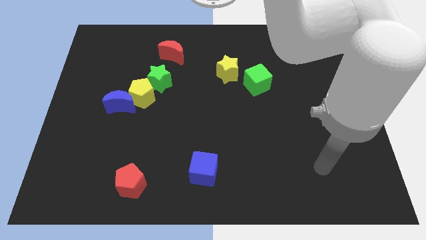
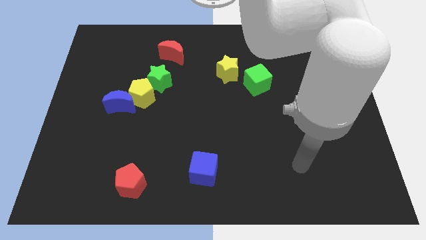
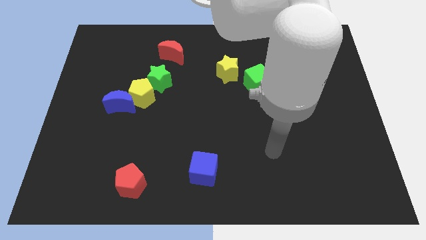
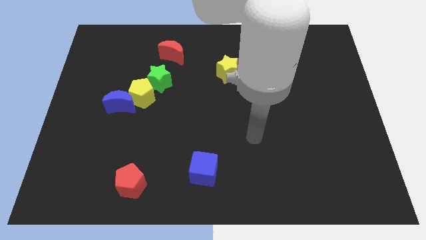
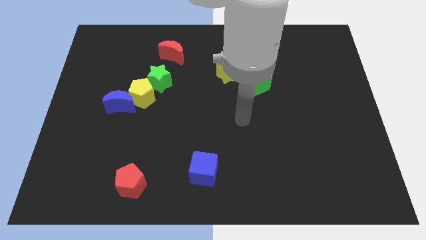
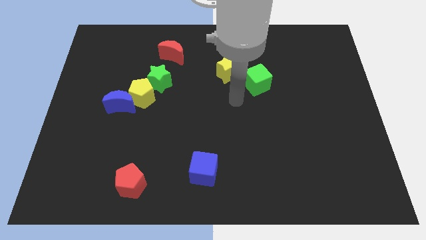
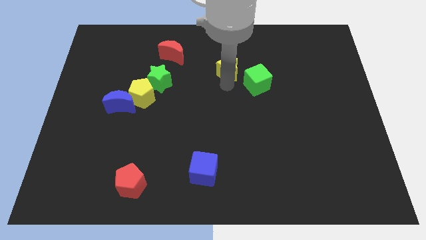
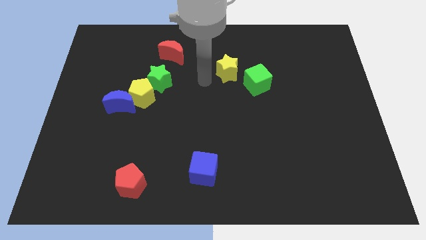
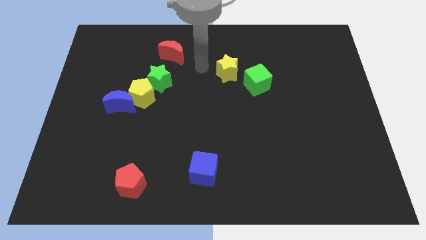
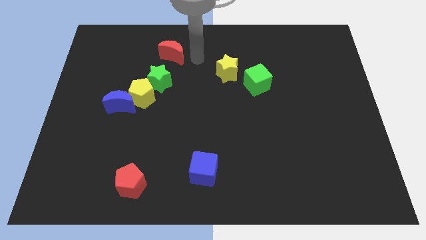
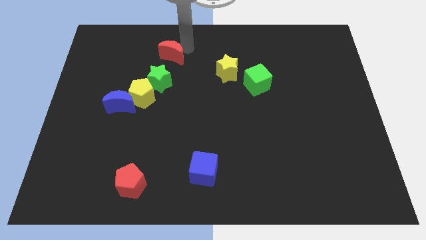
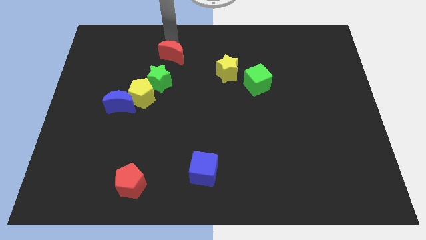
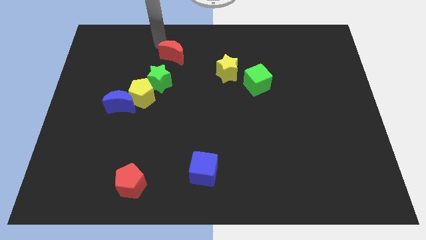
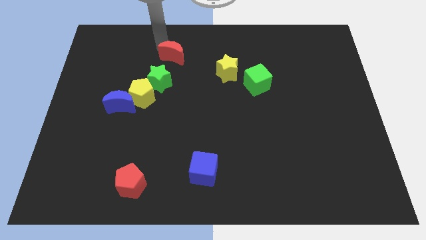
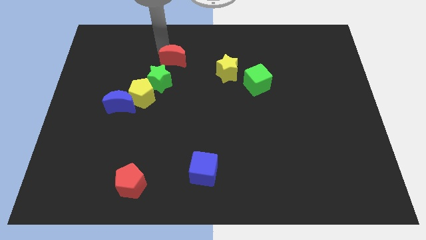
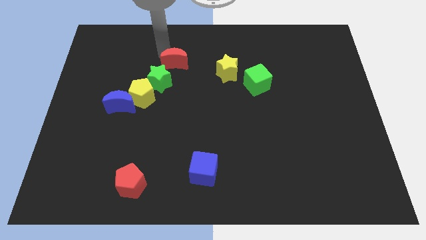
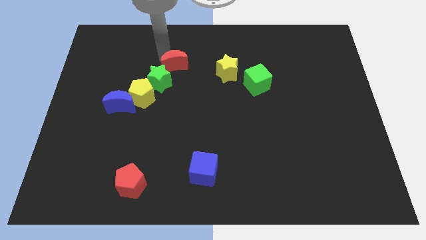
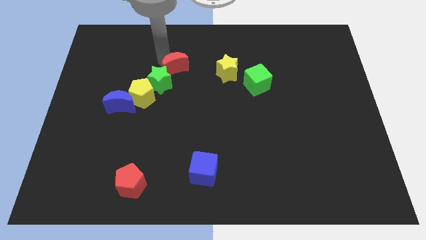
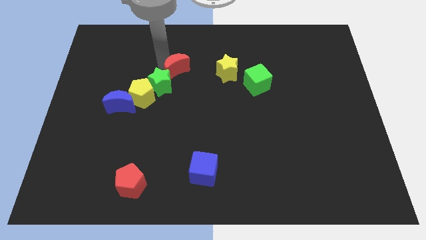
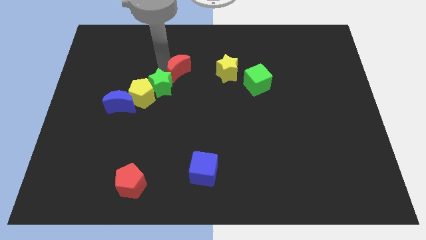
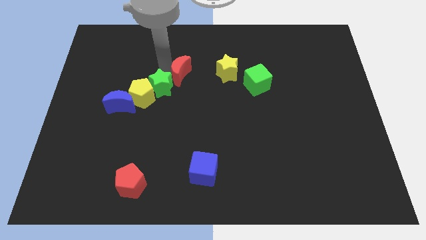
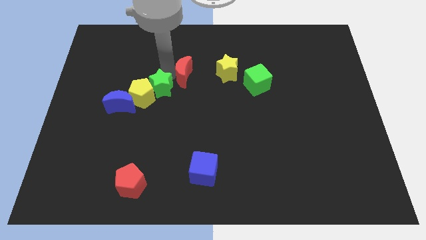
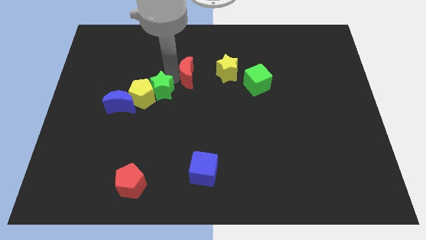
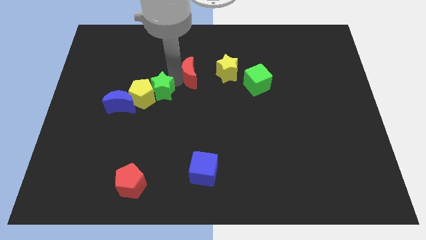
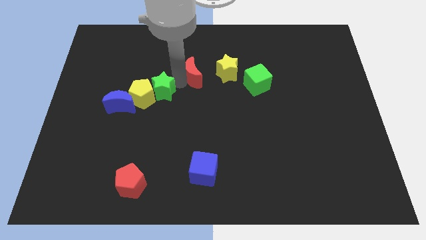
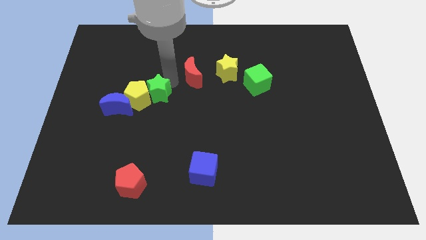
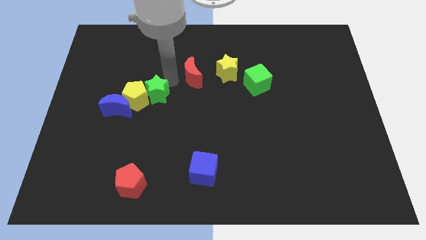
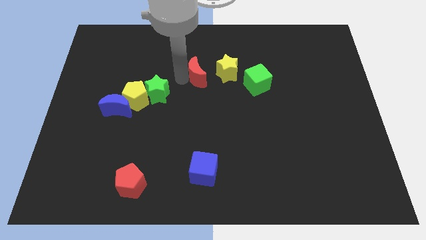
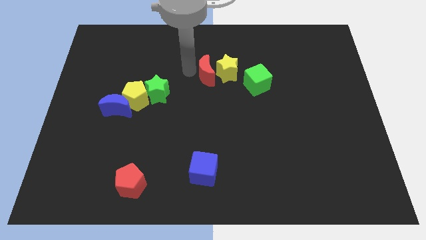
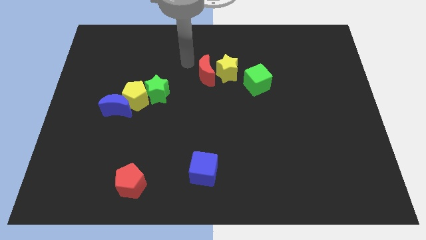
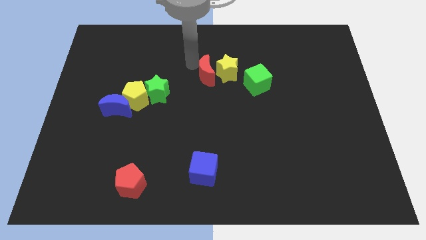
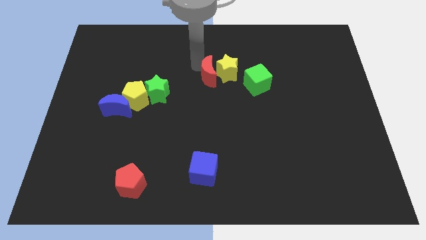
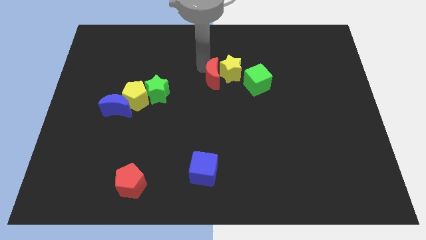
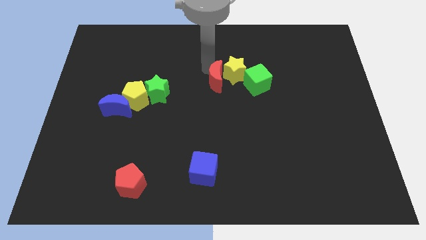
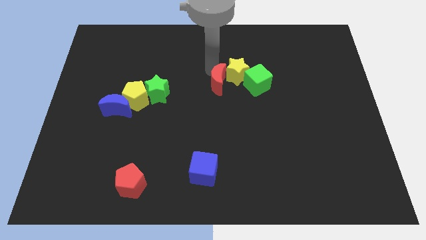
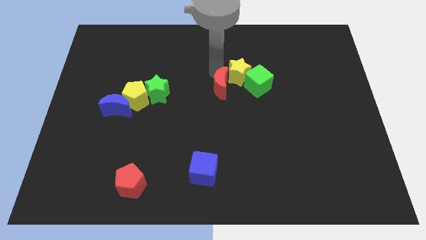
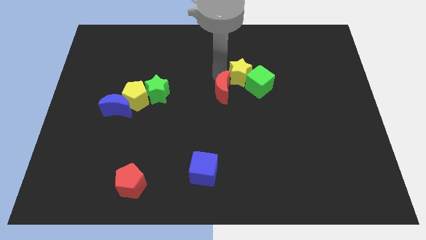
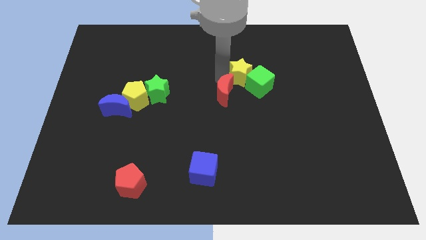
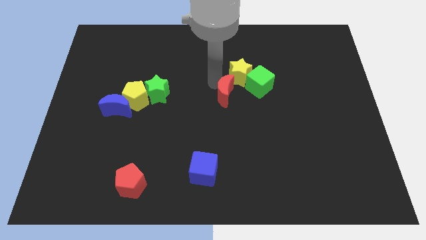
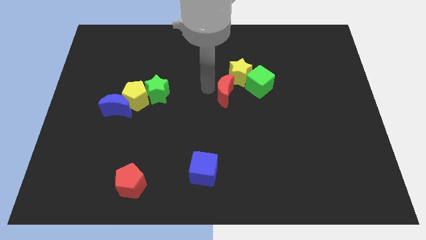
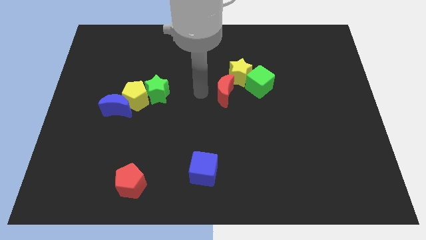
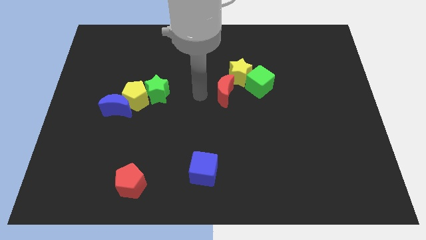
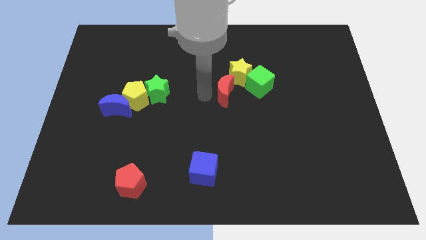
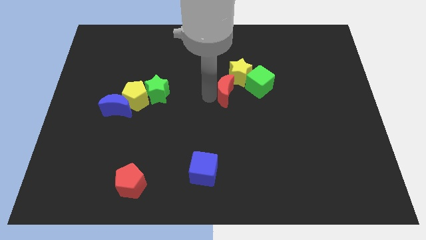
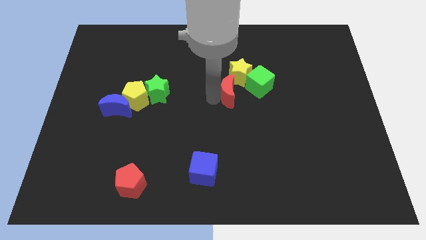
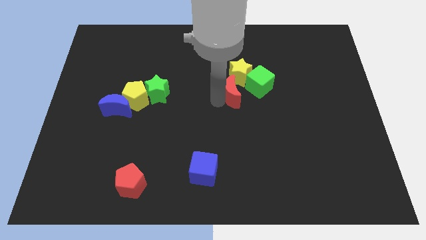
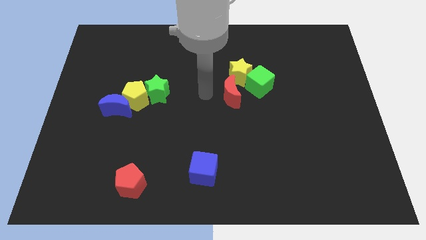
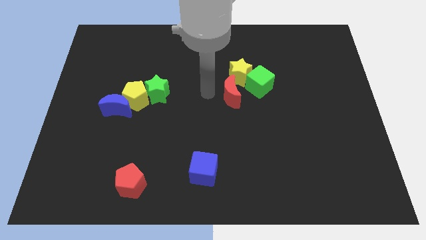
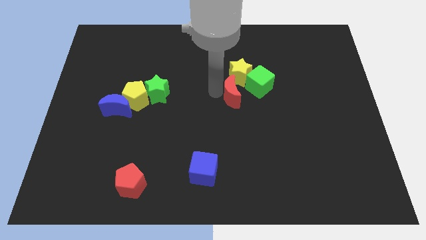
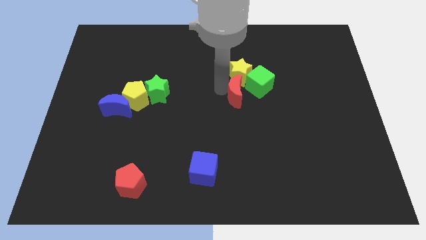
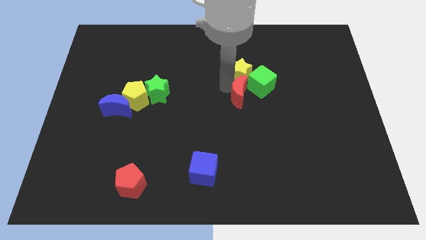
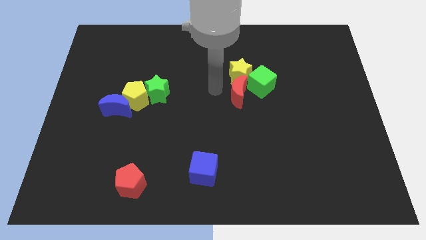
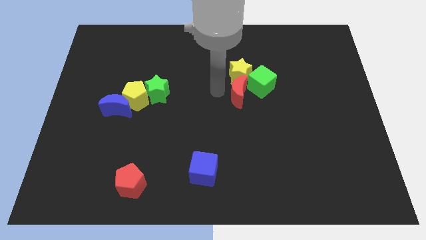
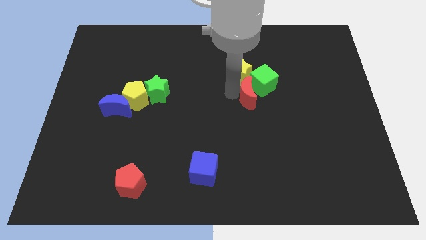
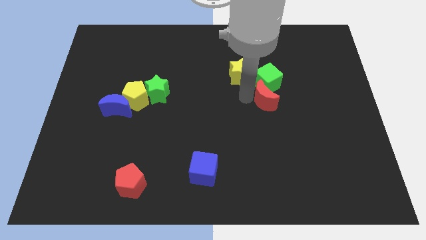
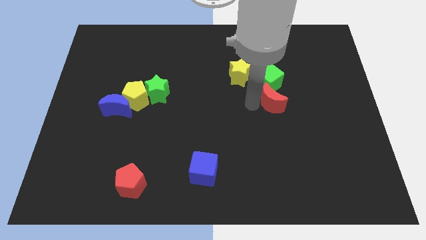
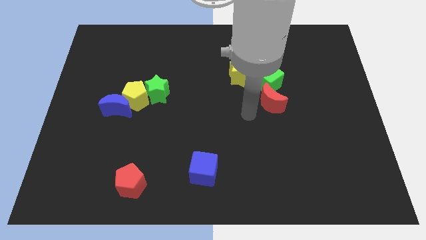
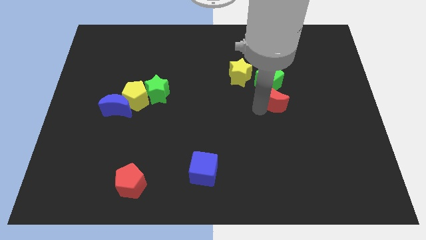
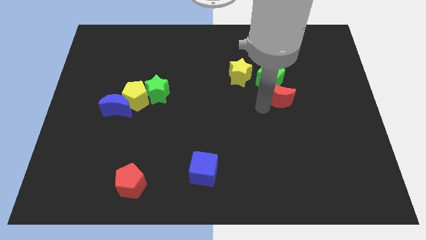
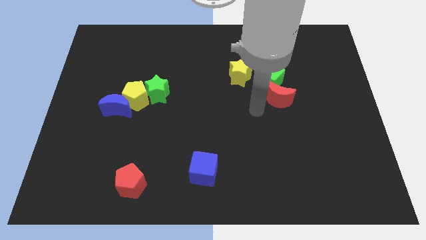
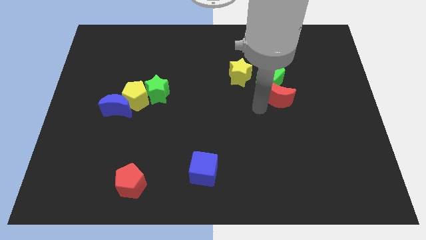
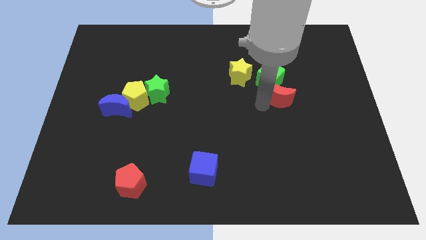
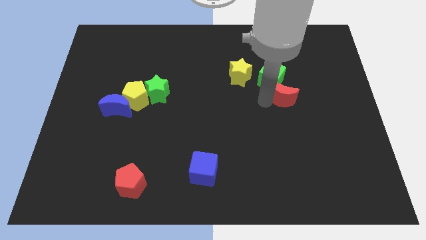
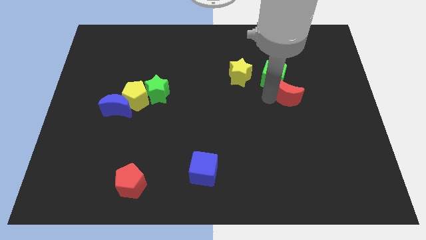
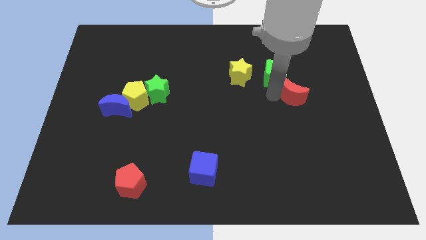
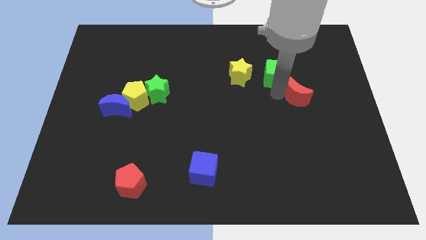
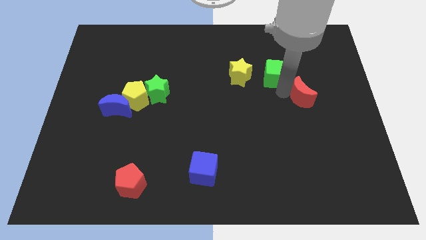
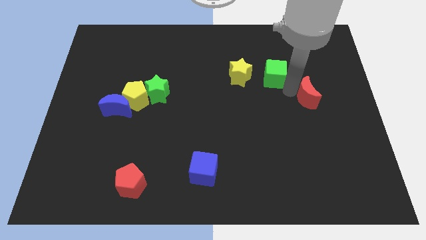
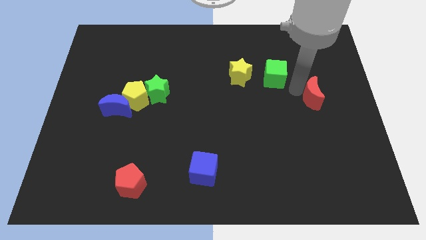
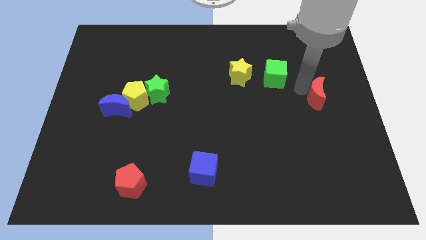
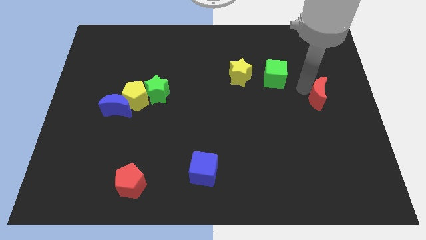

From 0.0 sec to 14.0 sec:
slide the red moon to the right side of the board
